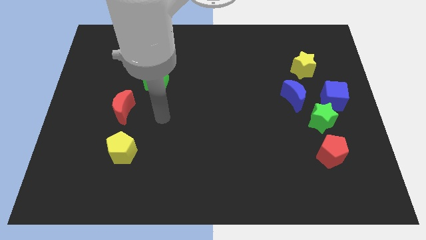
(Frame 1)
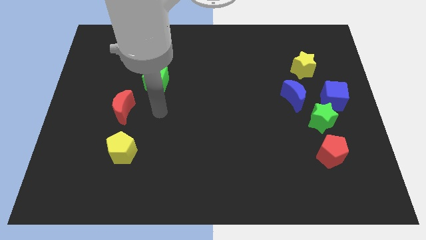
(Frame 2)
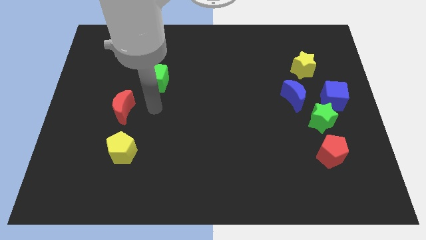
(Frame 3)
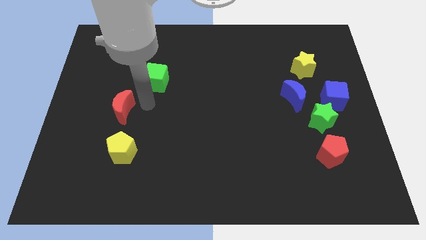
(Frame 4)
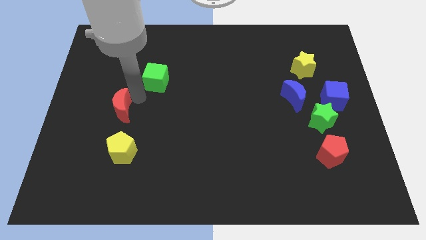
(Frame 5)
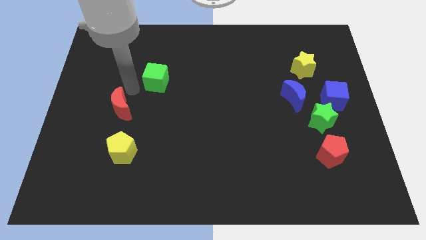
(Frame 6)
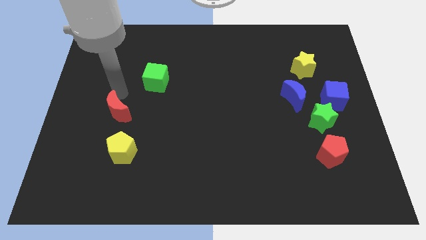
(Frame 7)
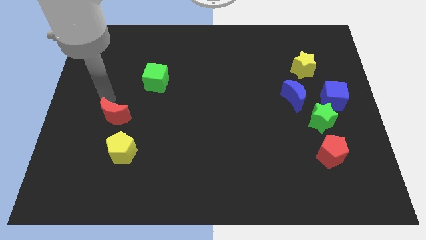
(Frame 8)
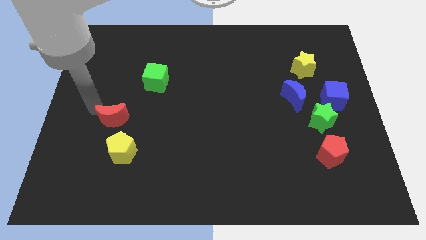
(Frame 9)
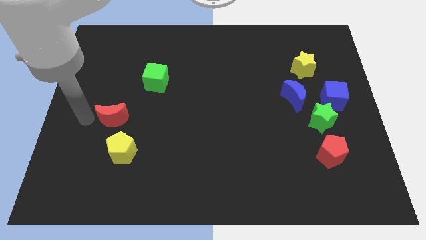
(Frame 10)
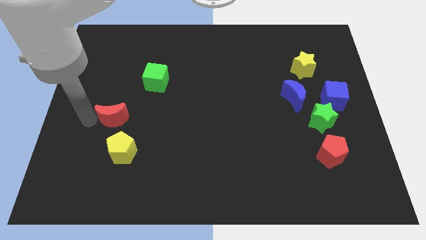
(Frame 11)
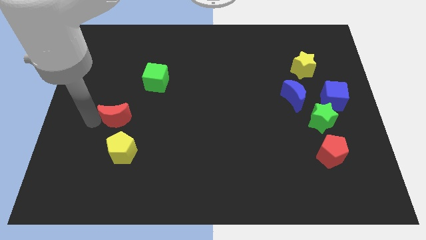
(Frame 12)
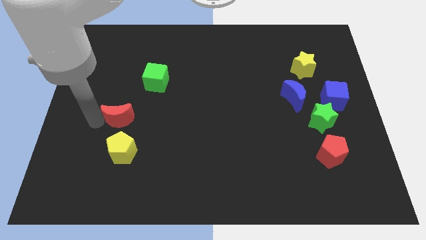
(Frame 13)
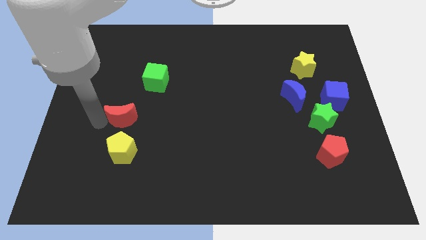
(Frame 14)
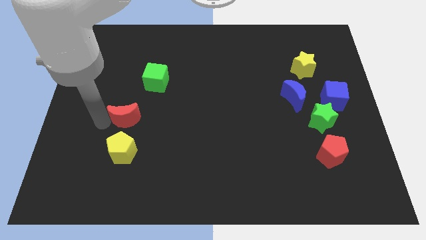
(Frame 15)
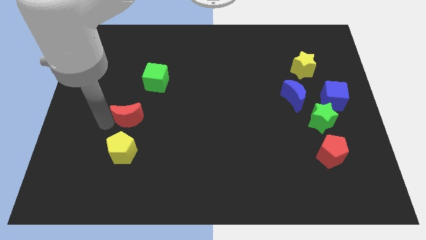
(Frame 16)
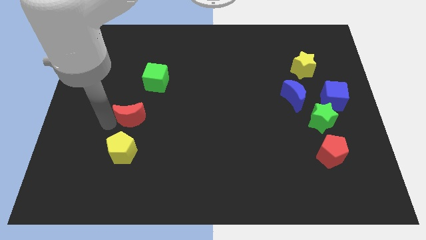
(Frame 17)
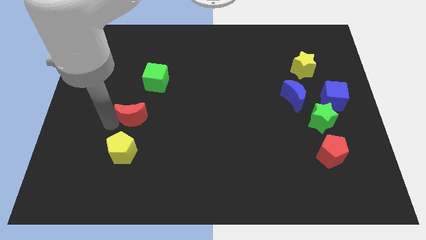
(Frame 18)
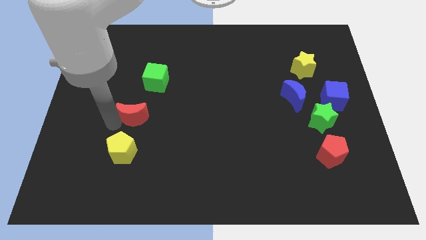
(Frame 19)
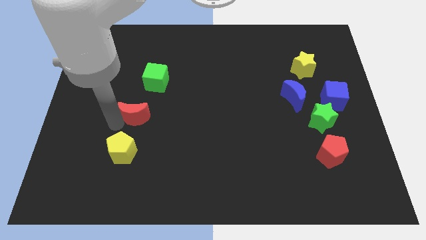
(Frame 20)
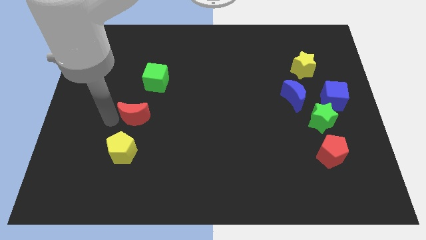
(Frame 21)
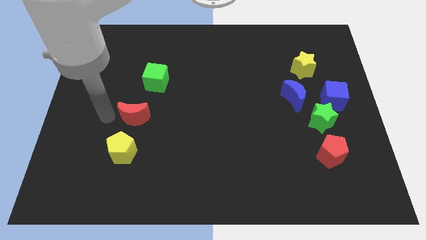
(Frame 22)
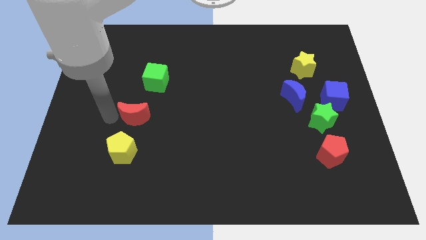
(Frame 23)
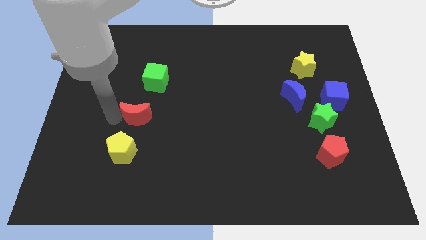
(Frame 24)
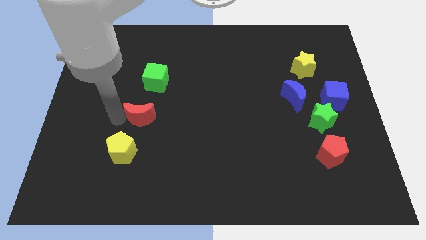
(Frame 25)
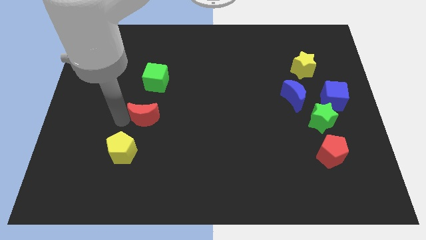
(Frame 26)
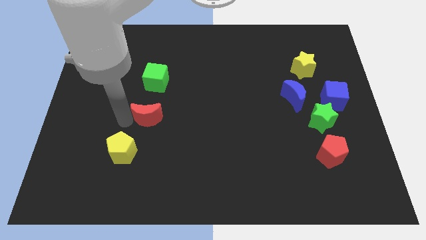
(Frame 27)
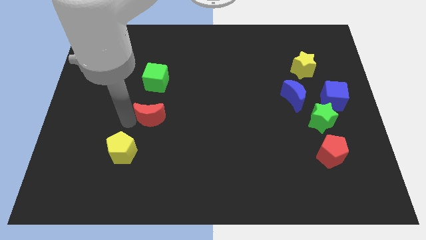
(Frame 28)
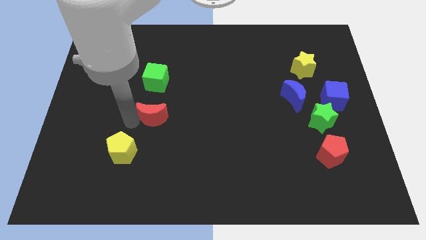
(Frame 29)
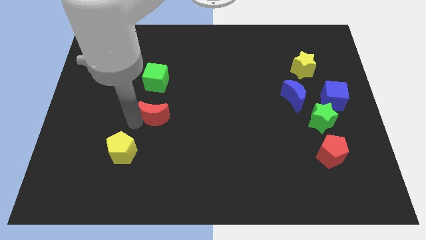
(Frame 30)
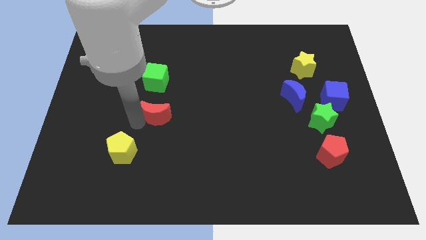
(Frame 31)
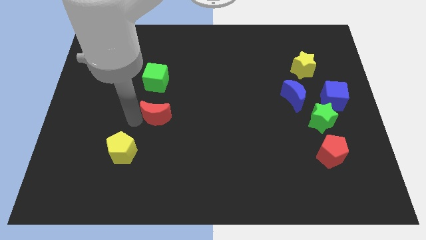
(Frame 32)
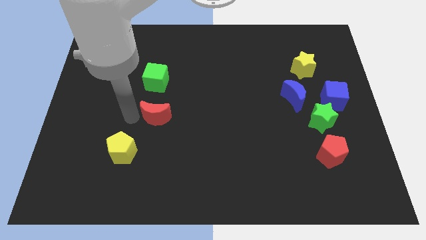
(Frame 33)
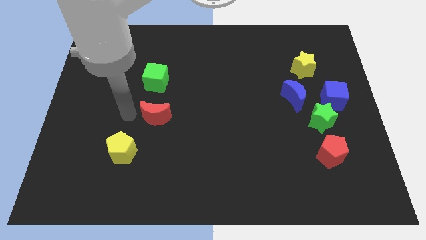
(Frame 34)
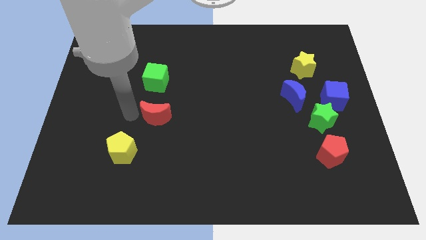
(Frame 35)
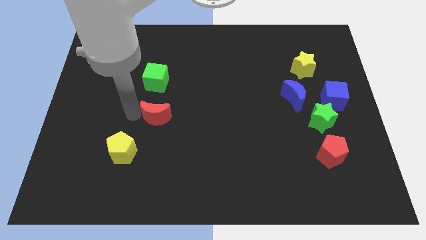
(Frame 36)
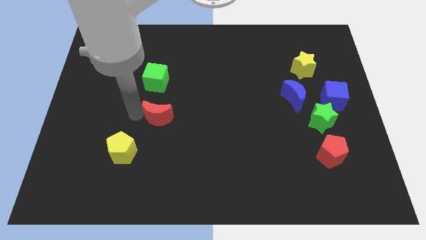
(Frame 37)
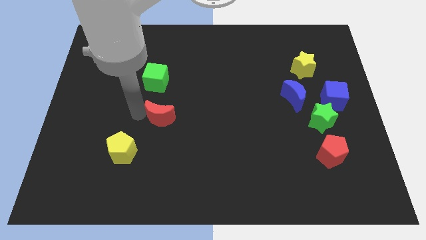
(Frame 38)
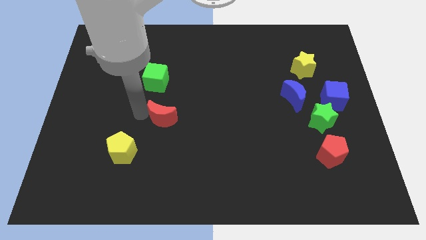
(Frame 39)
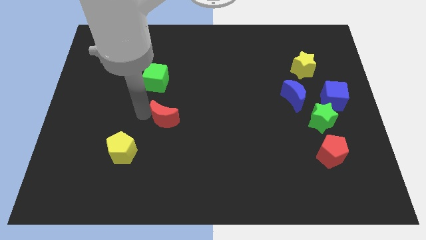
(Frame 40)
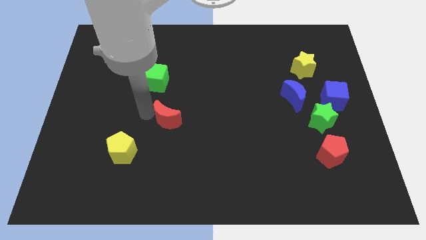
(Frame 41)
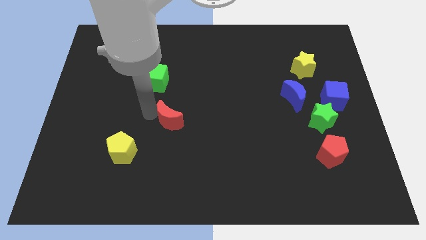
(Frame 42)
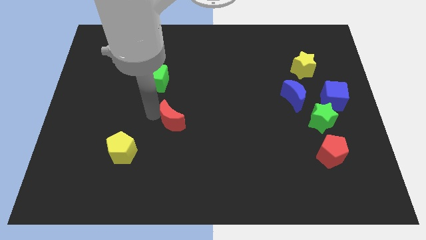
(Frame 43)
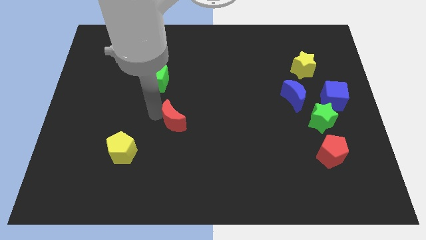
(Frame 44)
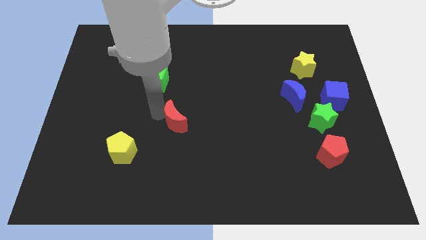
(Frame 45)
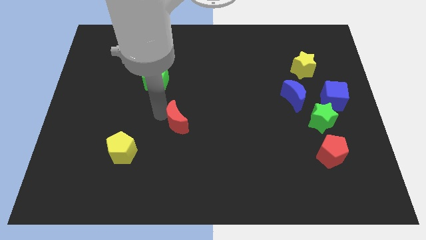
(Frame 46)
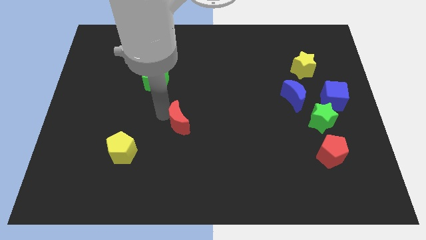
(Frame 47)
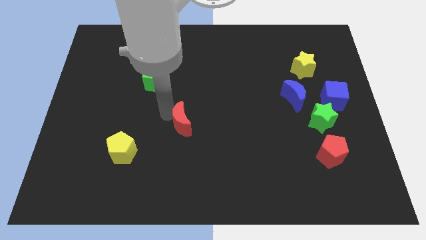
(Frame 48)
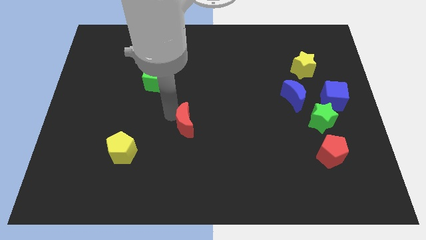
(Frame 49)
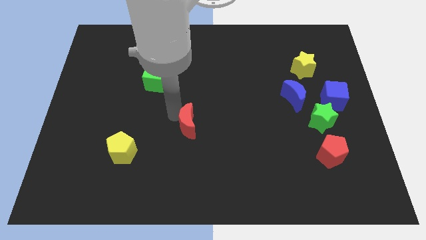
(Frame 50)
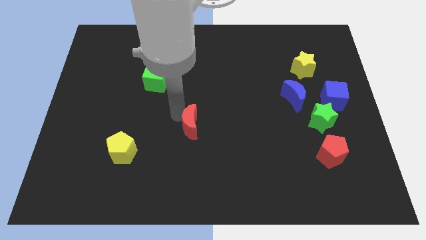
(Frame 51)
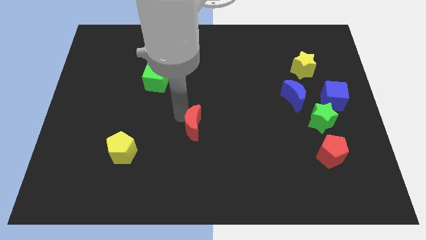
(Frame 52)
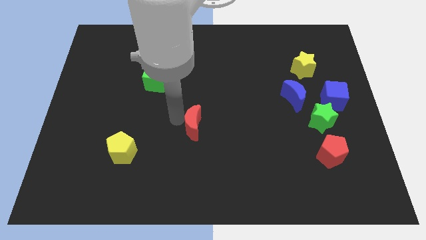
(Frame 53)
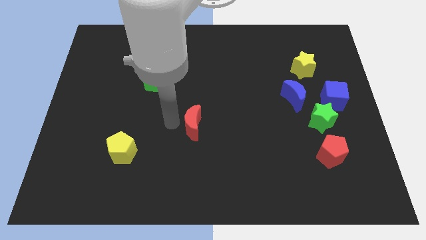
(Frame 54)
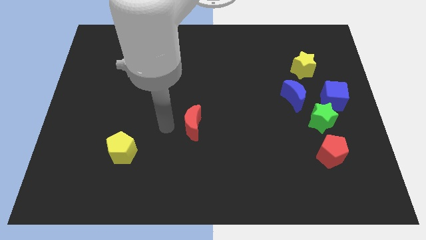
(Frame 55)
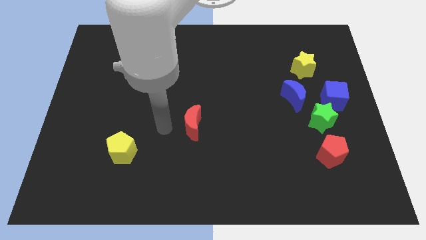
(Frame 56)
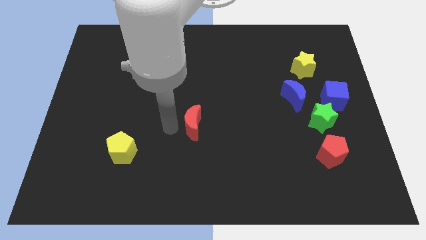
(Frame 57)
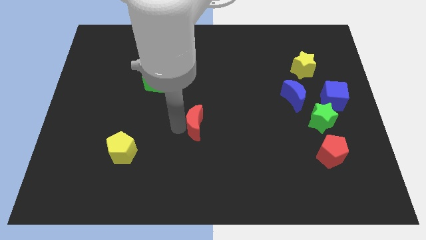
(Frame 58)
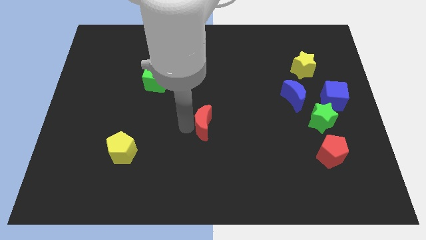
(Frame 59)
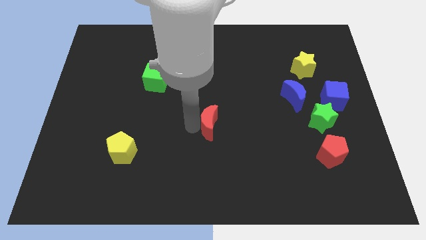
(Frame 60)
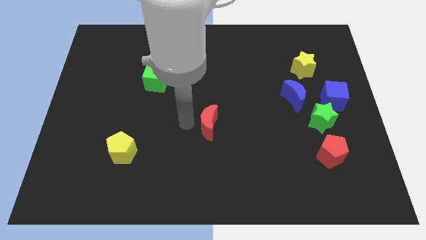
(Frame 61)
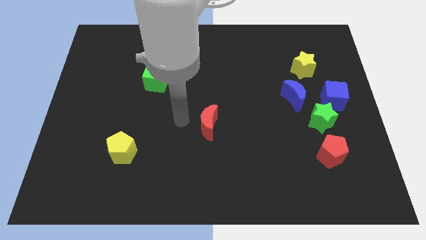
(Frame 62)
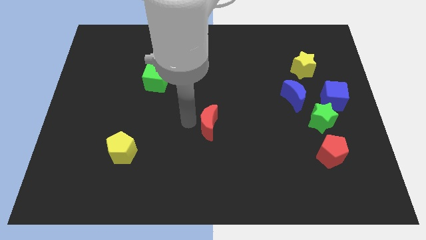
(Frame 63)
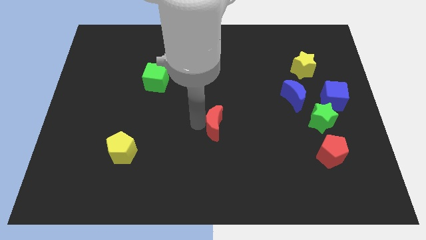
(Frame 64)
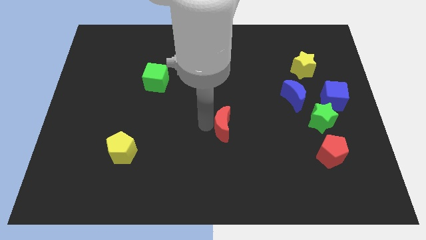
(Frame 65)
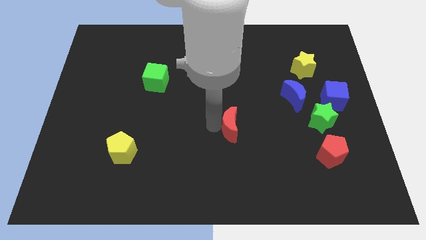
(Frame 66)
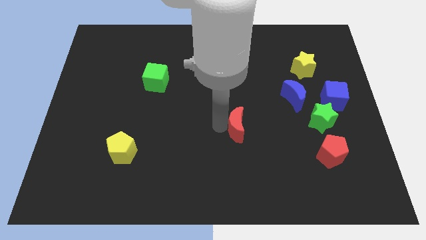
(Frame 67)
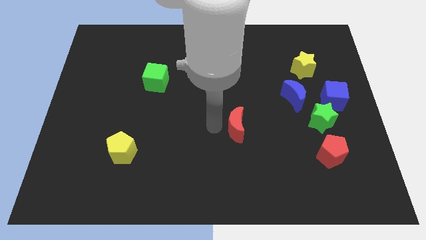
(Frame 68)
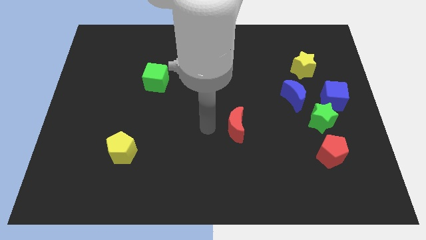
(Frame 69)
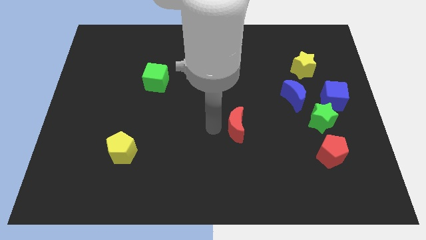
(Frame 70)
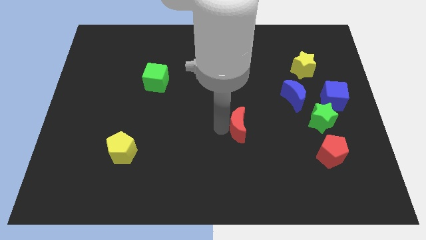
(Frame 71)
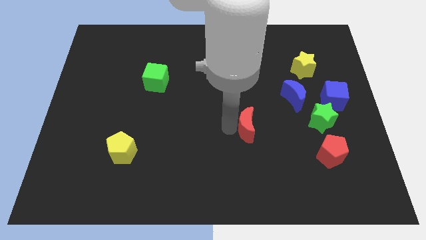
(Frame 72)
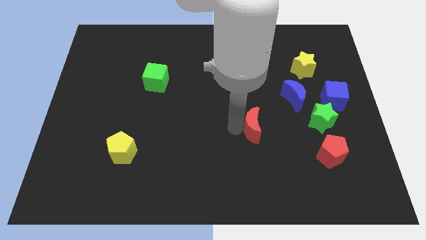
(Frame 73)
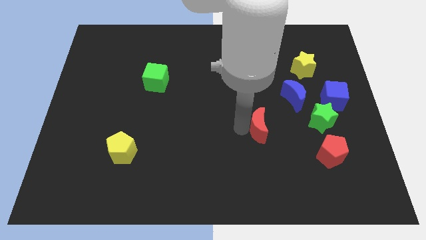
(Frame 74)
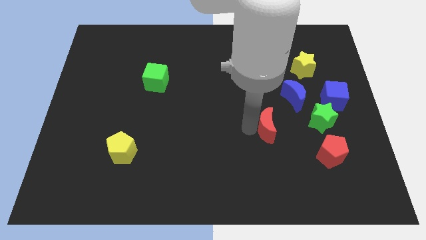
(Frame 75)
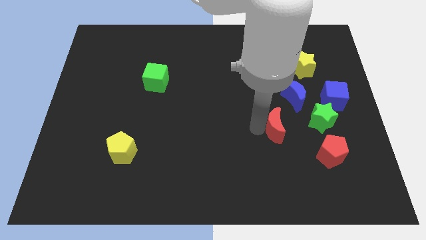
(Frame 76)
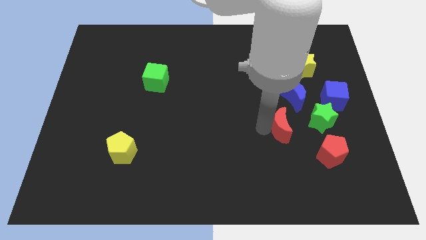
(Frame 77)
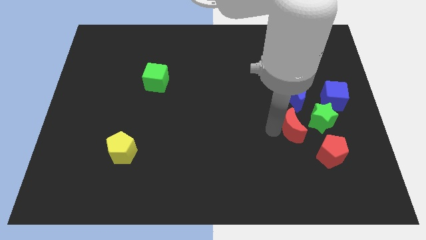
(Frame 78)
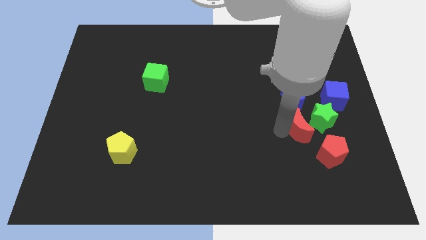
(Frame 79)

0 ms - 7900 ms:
slide the red moon to the green star
